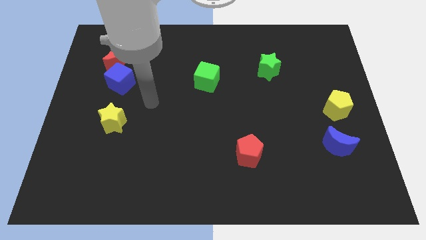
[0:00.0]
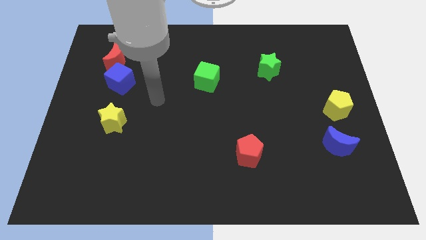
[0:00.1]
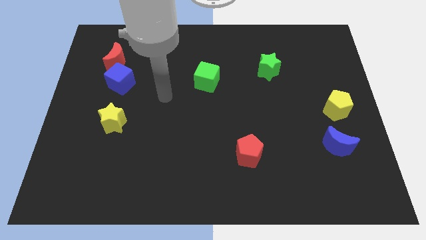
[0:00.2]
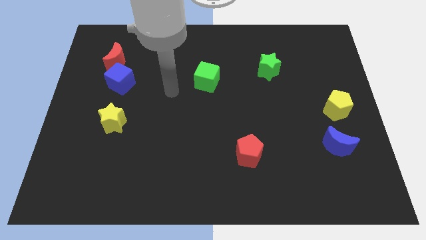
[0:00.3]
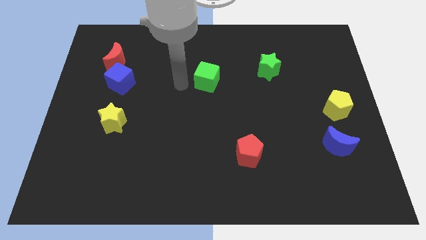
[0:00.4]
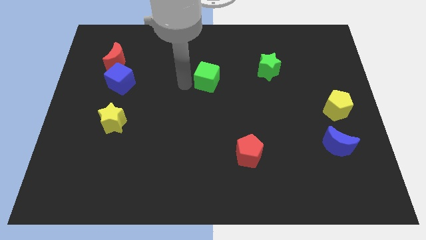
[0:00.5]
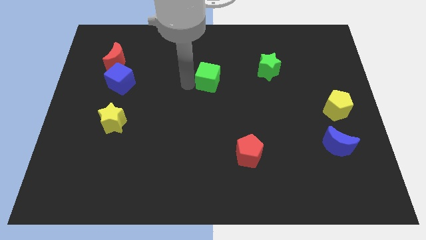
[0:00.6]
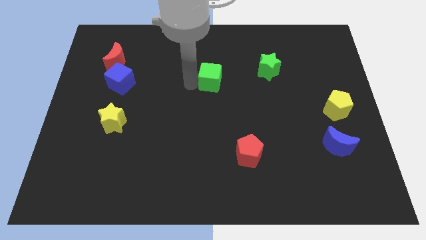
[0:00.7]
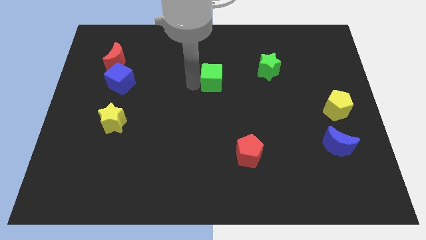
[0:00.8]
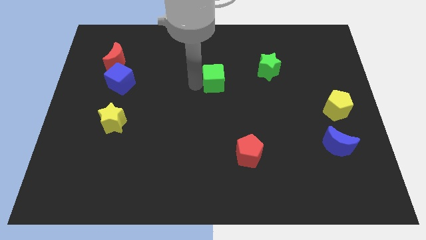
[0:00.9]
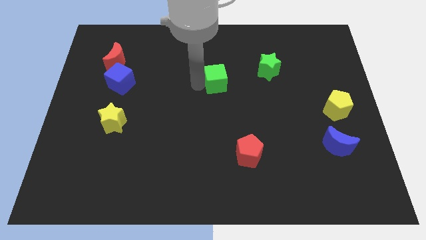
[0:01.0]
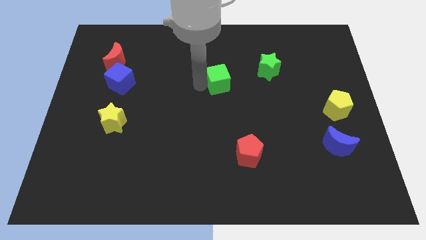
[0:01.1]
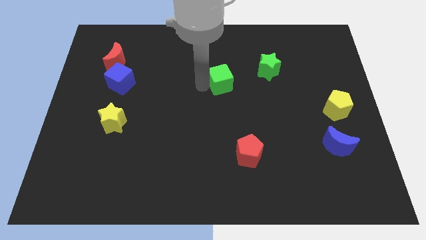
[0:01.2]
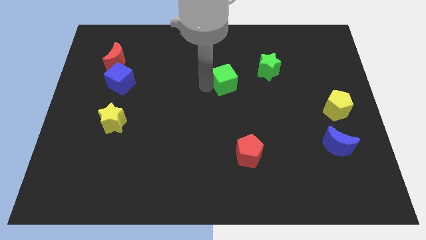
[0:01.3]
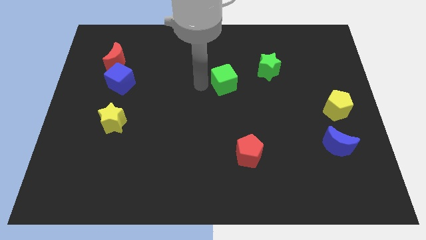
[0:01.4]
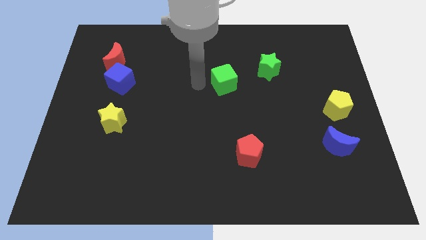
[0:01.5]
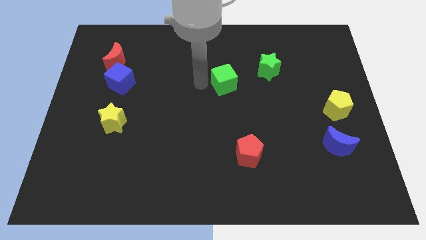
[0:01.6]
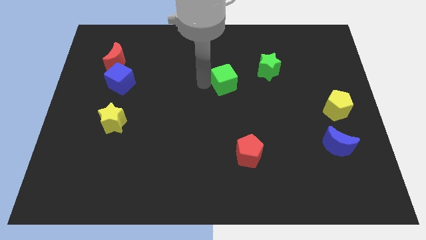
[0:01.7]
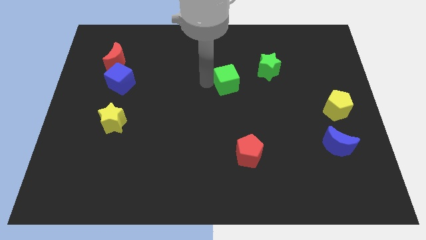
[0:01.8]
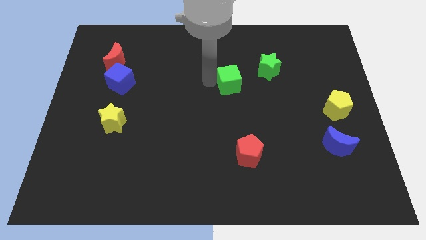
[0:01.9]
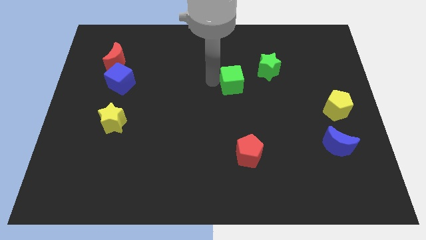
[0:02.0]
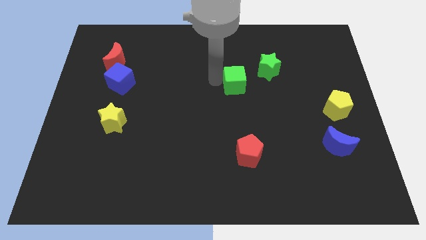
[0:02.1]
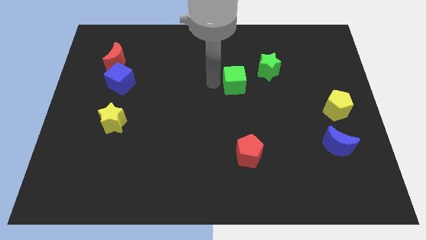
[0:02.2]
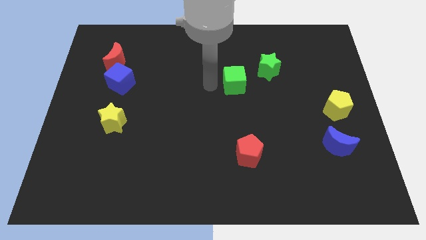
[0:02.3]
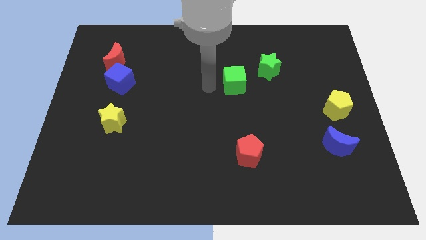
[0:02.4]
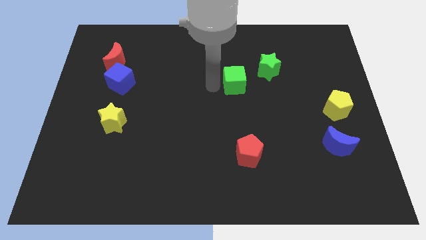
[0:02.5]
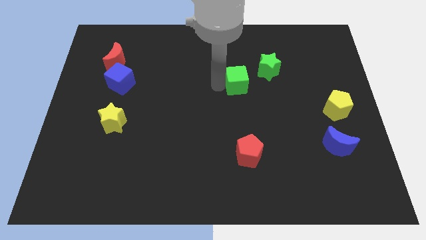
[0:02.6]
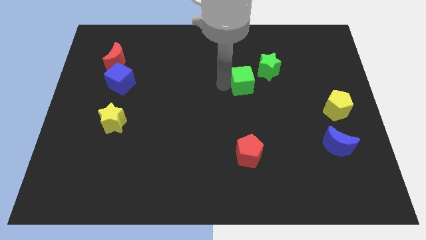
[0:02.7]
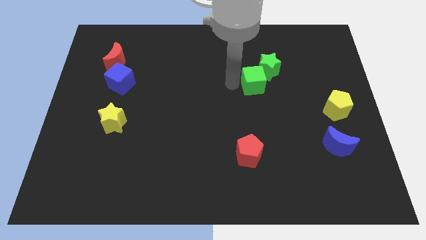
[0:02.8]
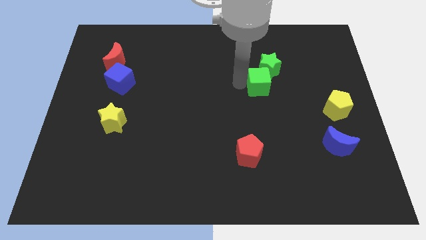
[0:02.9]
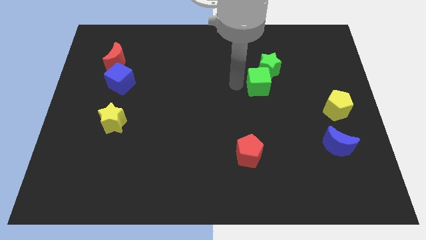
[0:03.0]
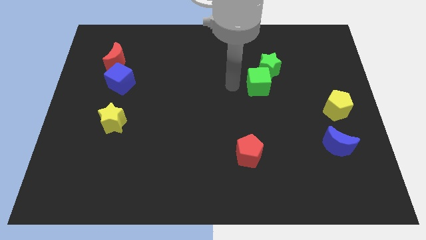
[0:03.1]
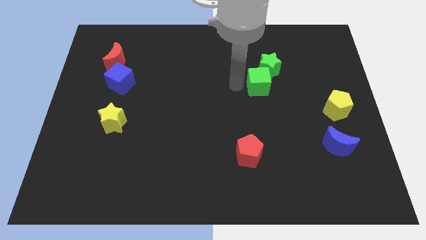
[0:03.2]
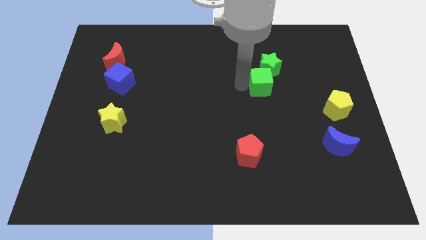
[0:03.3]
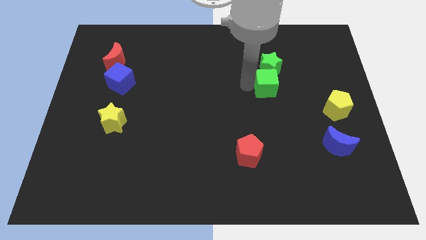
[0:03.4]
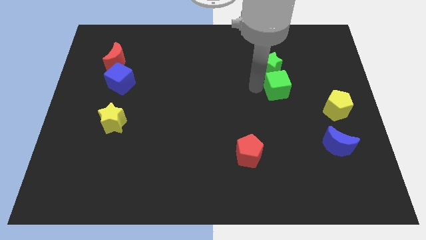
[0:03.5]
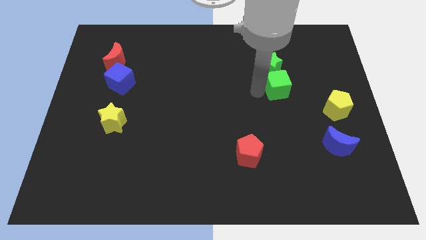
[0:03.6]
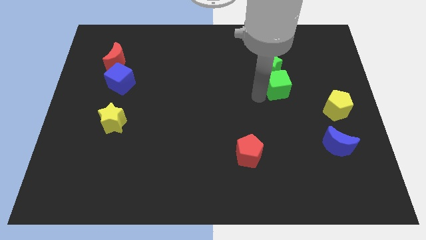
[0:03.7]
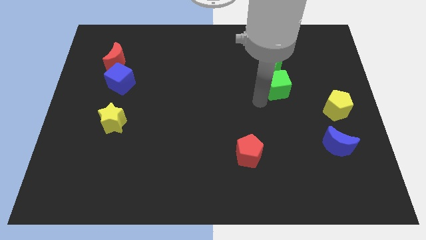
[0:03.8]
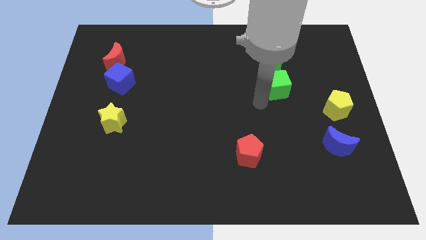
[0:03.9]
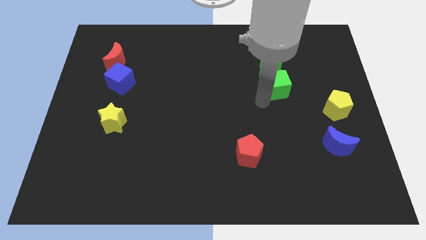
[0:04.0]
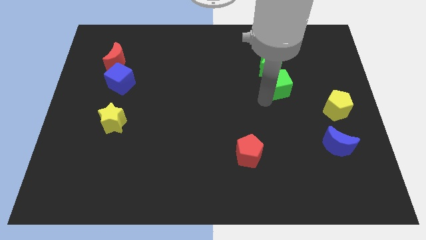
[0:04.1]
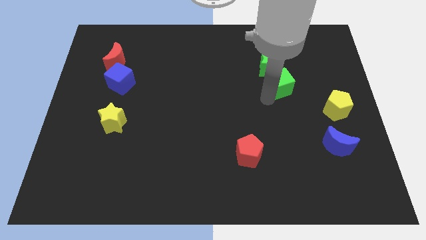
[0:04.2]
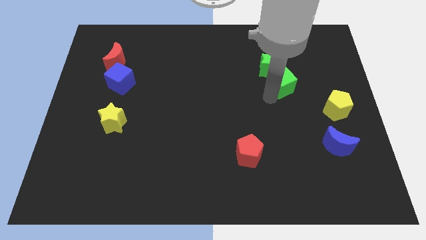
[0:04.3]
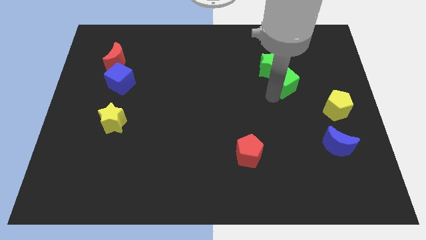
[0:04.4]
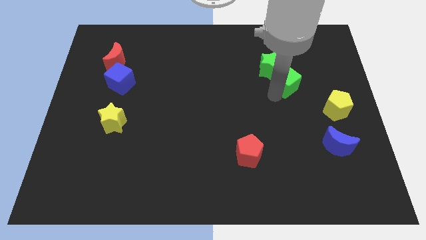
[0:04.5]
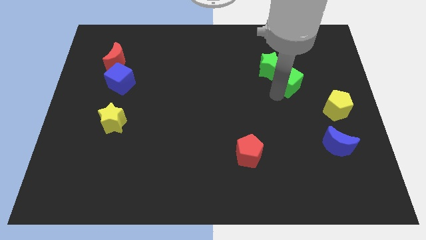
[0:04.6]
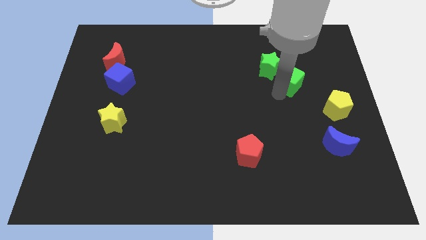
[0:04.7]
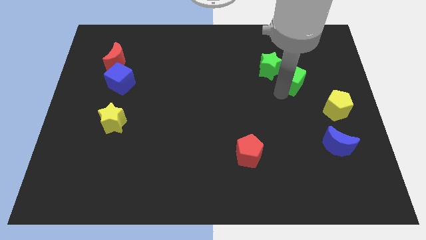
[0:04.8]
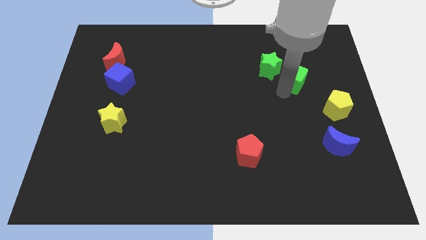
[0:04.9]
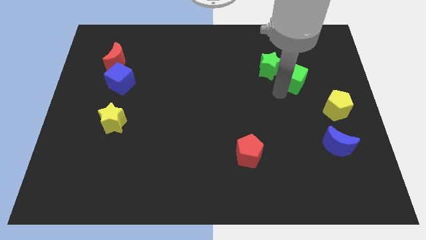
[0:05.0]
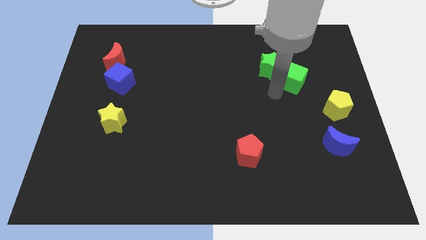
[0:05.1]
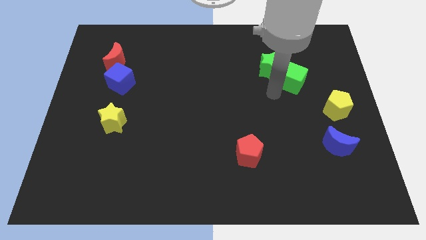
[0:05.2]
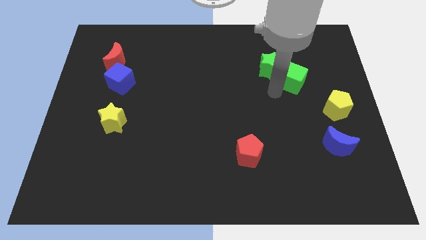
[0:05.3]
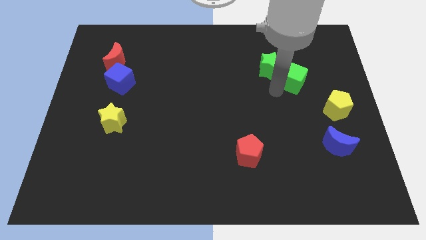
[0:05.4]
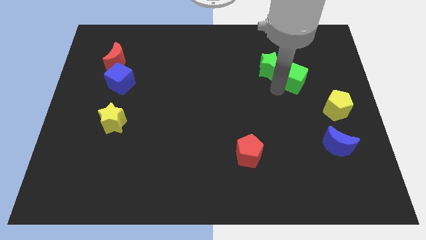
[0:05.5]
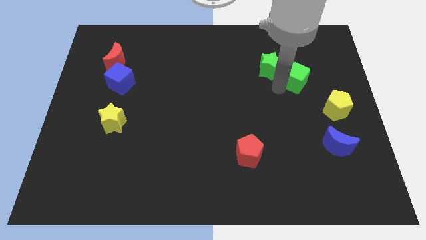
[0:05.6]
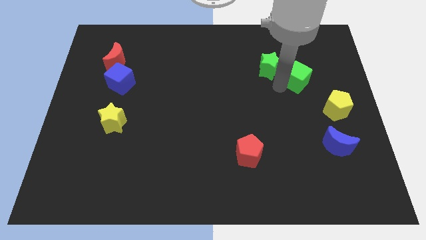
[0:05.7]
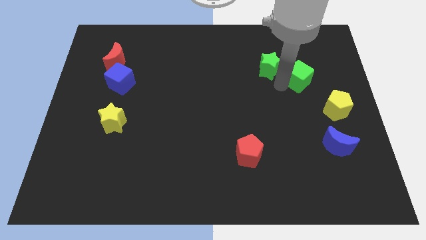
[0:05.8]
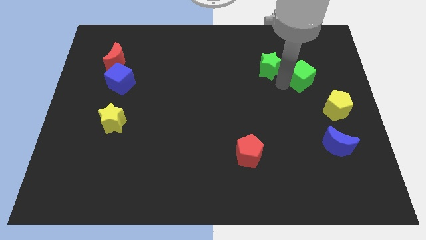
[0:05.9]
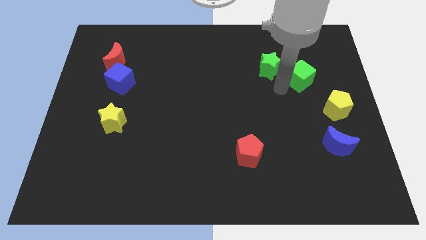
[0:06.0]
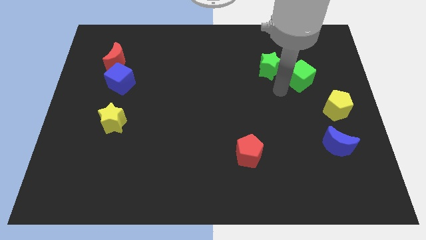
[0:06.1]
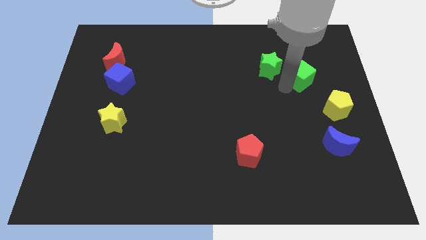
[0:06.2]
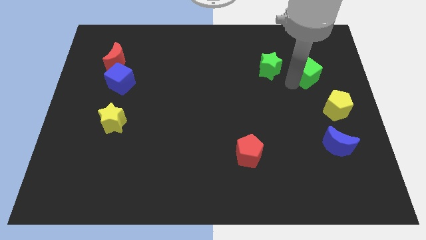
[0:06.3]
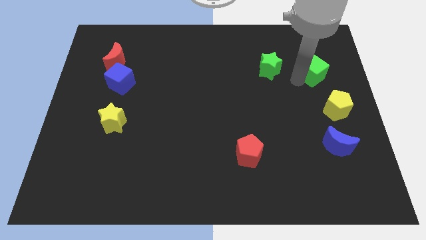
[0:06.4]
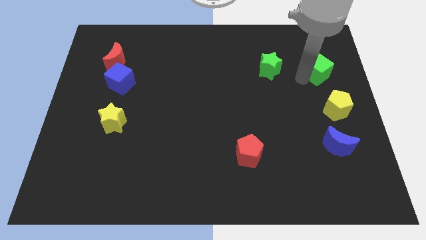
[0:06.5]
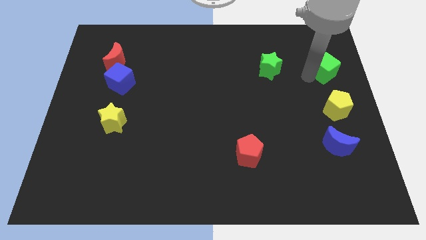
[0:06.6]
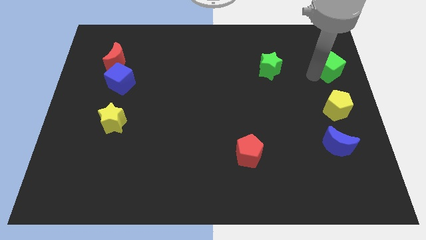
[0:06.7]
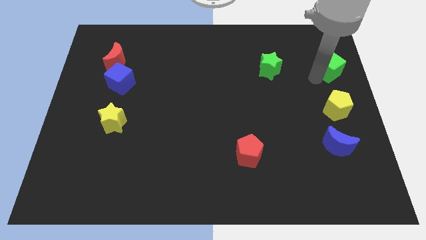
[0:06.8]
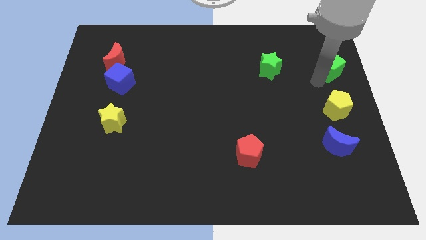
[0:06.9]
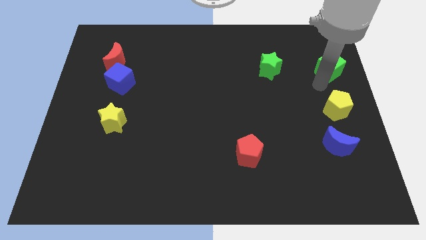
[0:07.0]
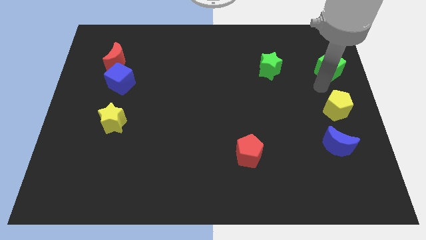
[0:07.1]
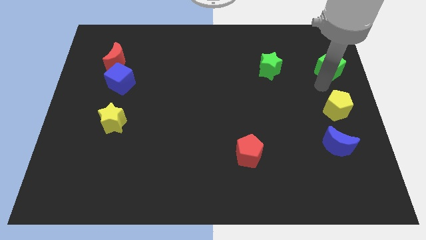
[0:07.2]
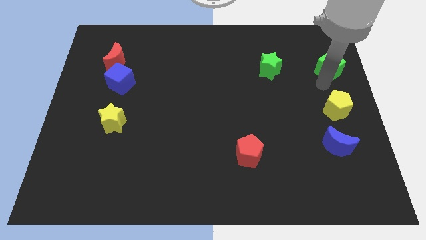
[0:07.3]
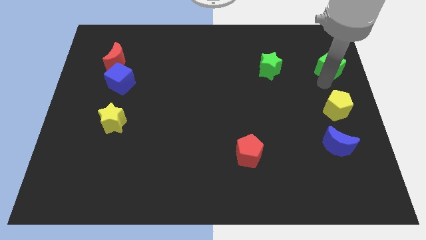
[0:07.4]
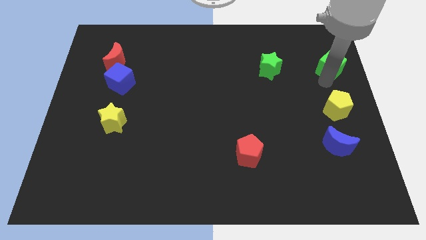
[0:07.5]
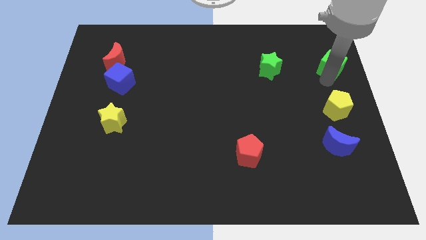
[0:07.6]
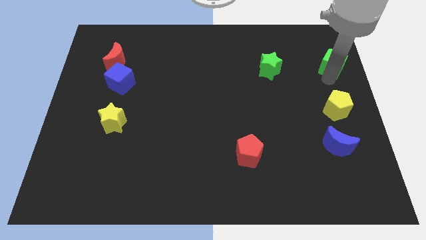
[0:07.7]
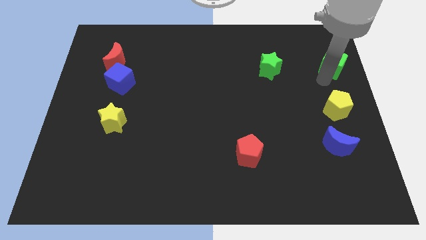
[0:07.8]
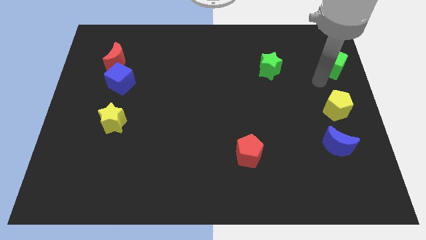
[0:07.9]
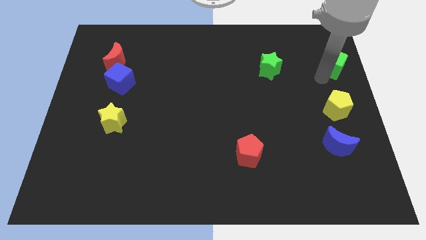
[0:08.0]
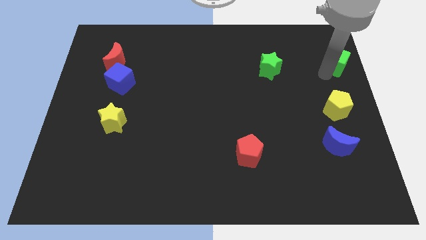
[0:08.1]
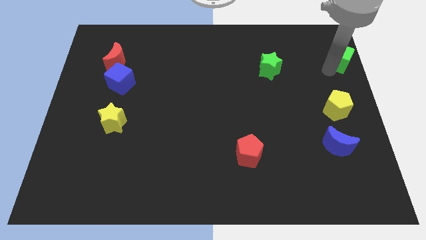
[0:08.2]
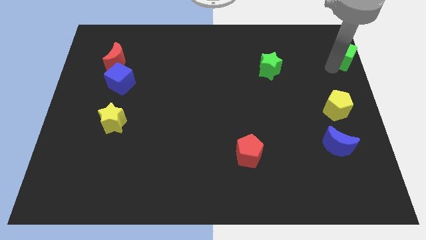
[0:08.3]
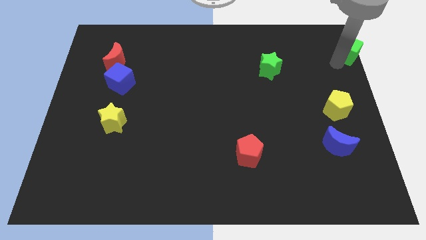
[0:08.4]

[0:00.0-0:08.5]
move the green cube to the upper right corner
